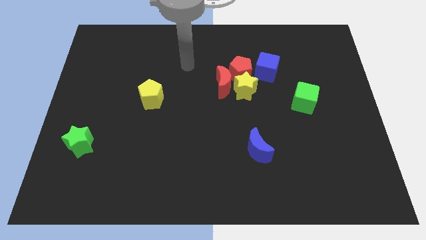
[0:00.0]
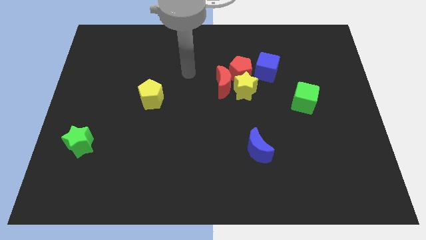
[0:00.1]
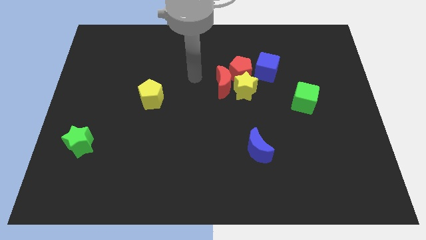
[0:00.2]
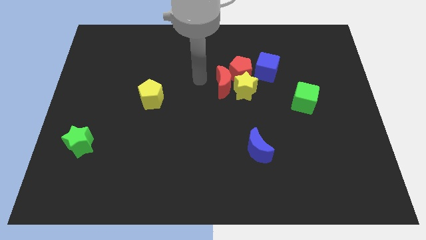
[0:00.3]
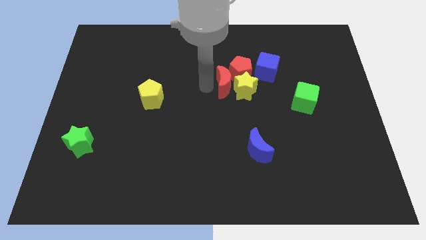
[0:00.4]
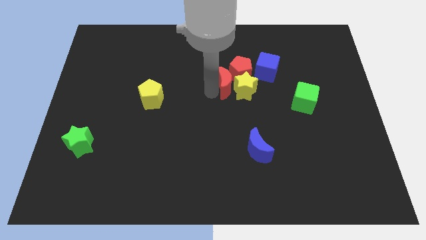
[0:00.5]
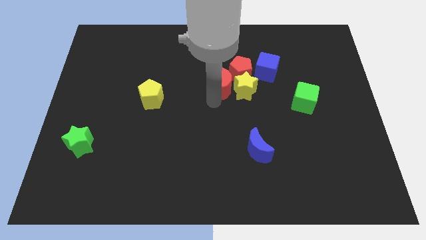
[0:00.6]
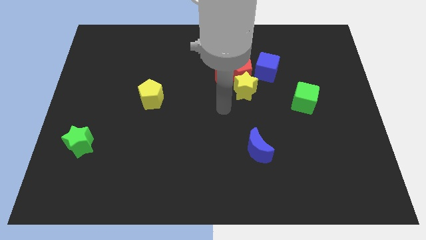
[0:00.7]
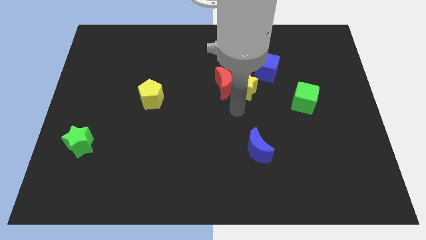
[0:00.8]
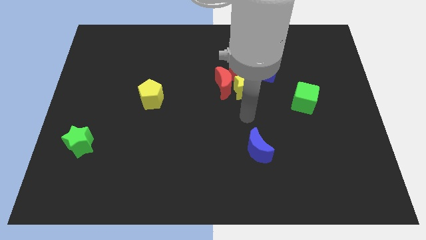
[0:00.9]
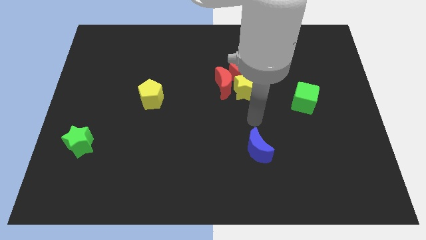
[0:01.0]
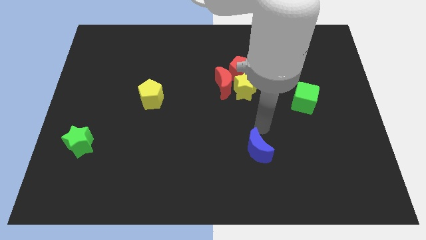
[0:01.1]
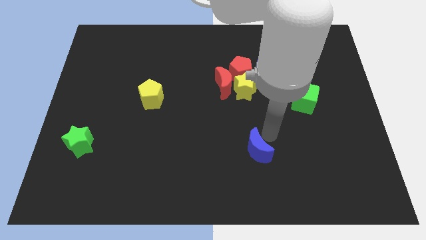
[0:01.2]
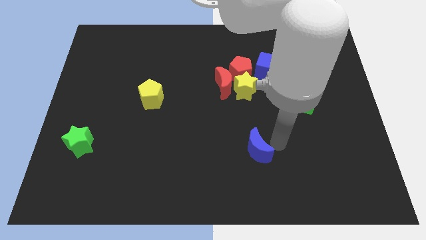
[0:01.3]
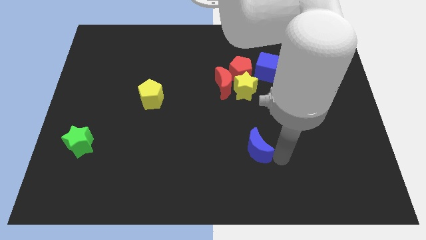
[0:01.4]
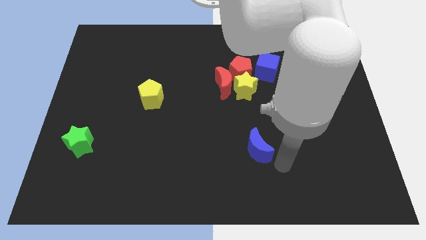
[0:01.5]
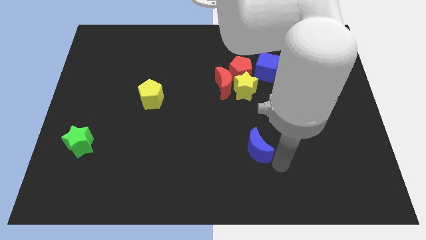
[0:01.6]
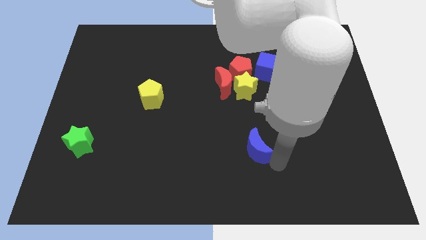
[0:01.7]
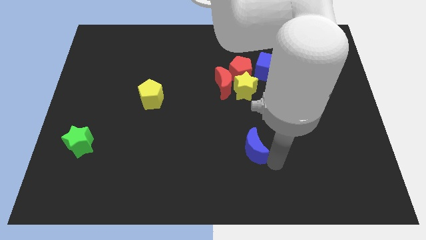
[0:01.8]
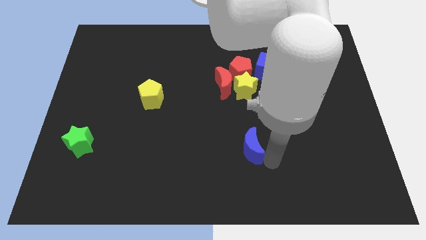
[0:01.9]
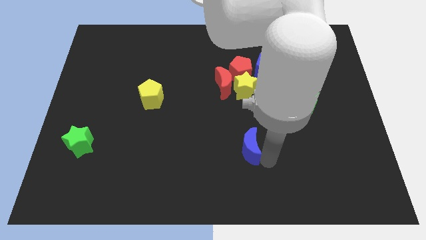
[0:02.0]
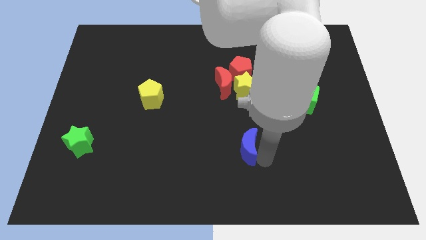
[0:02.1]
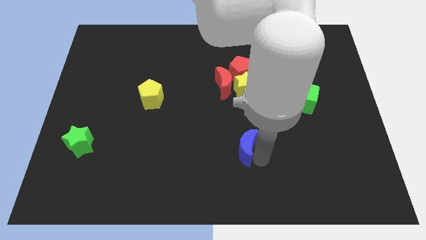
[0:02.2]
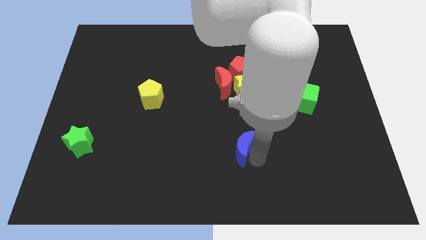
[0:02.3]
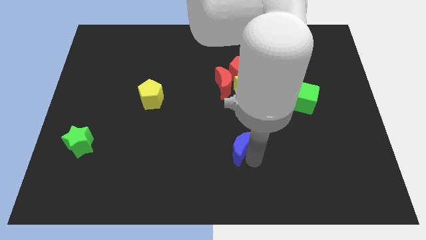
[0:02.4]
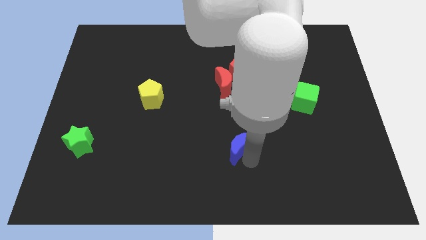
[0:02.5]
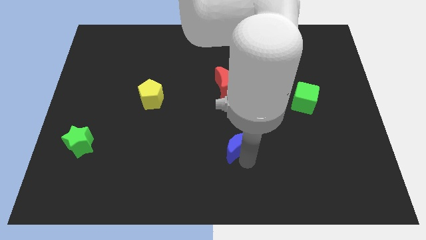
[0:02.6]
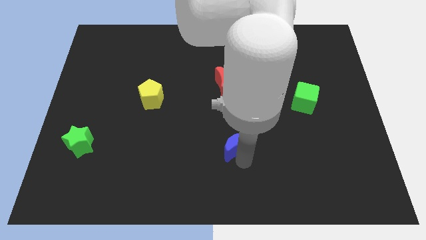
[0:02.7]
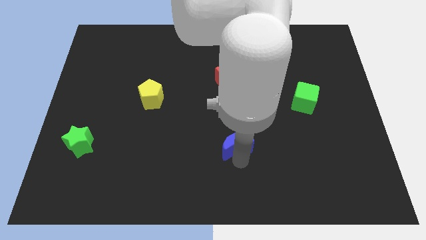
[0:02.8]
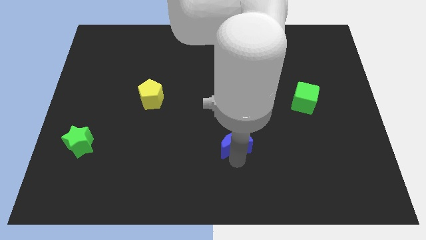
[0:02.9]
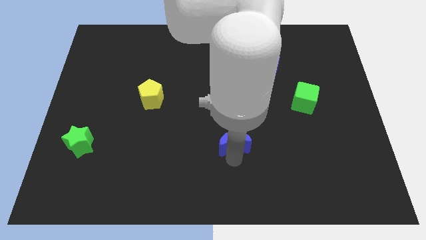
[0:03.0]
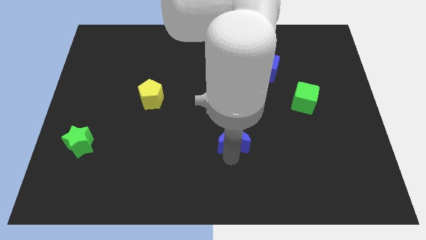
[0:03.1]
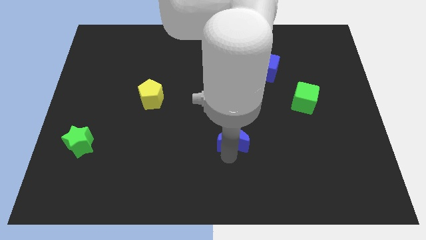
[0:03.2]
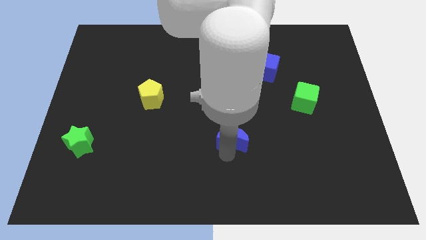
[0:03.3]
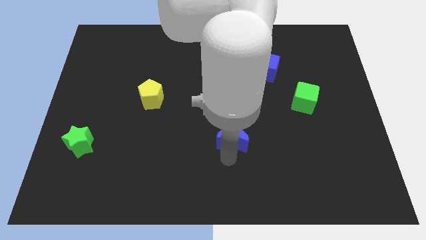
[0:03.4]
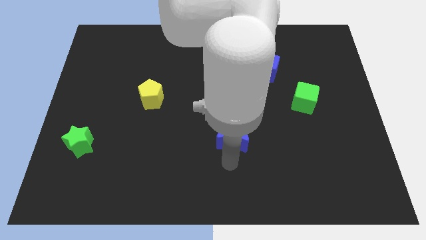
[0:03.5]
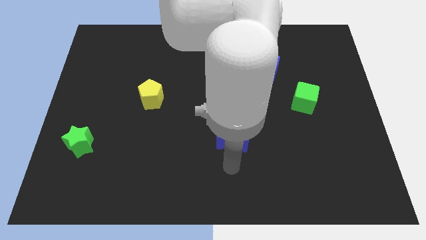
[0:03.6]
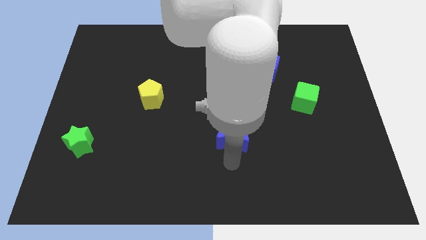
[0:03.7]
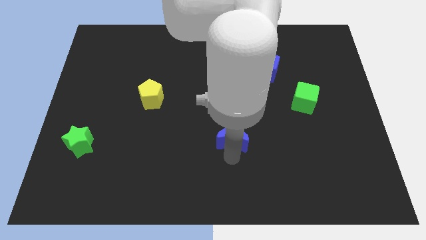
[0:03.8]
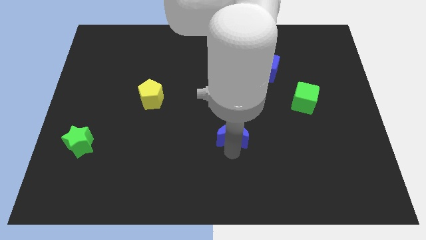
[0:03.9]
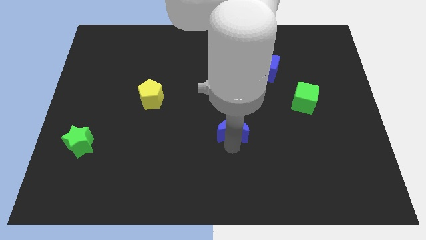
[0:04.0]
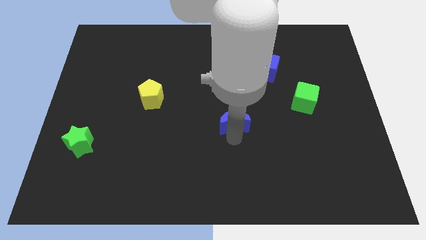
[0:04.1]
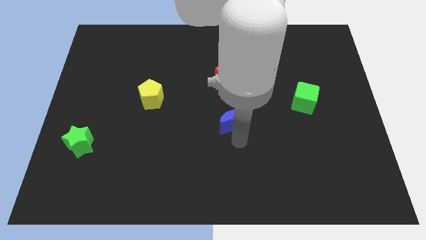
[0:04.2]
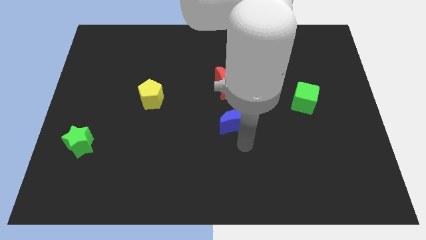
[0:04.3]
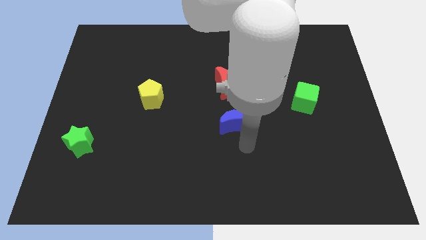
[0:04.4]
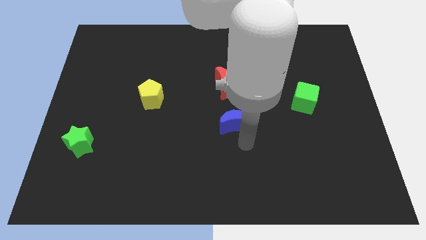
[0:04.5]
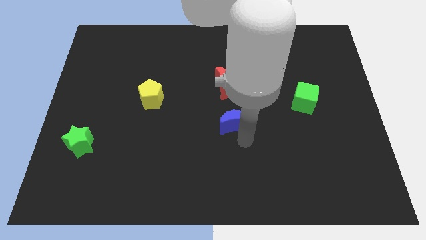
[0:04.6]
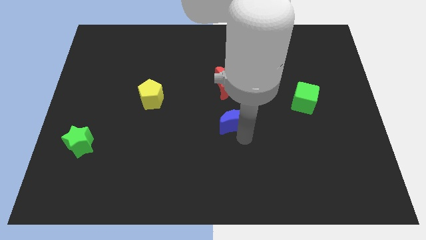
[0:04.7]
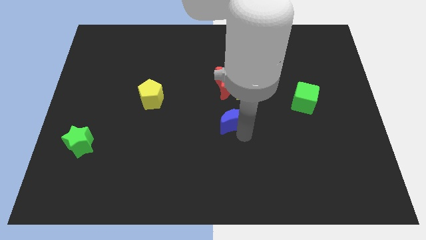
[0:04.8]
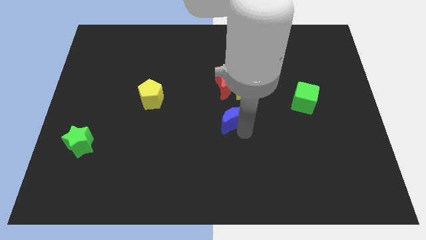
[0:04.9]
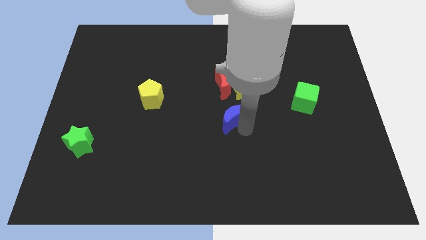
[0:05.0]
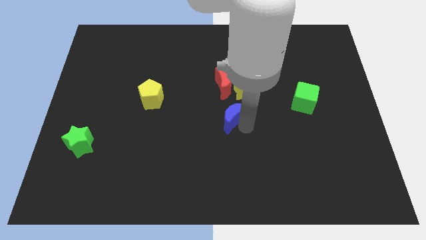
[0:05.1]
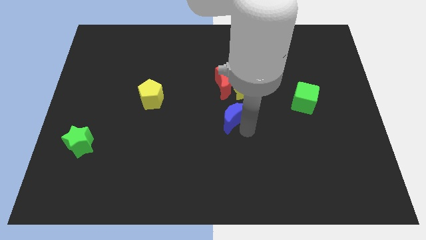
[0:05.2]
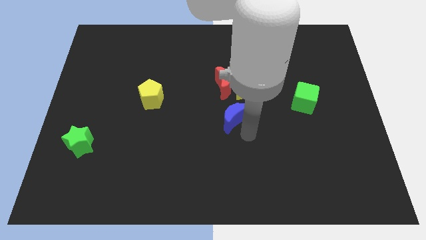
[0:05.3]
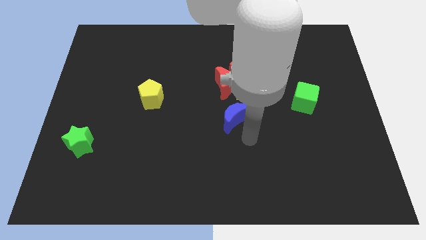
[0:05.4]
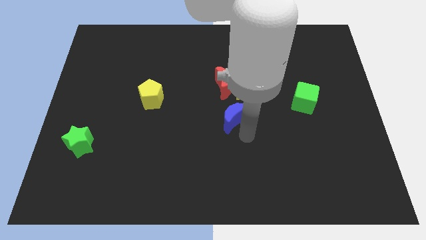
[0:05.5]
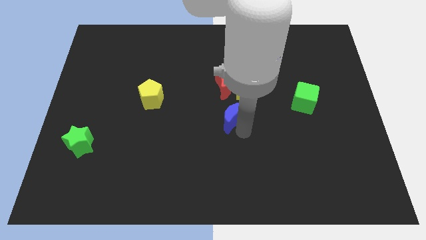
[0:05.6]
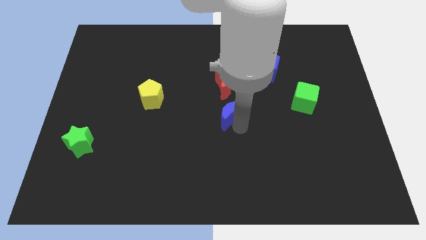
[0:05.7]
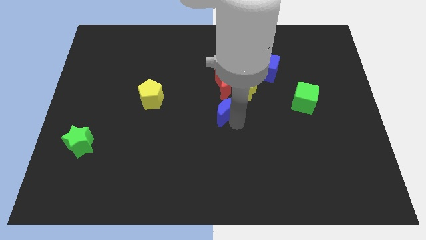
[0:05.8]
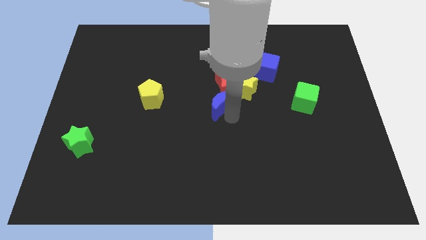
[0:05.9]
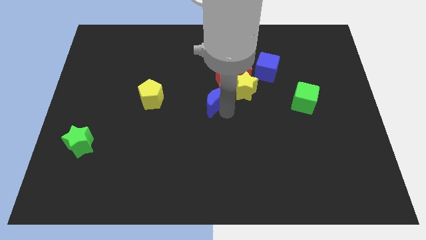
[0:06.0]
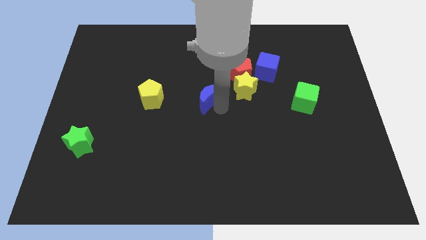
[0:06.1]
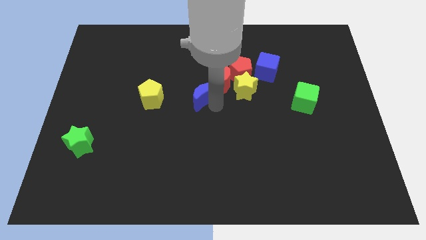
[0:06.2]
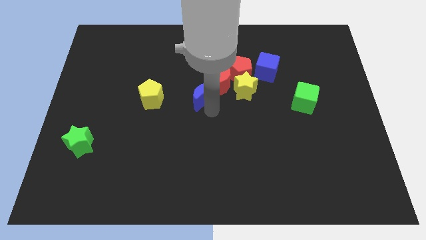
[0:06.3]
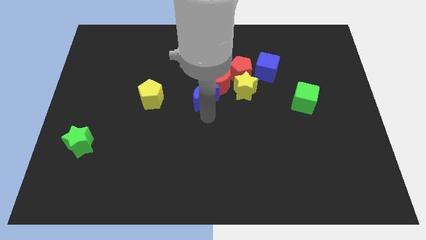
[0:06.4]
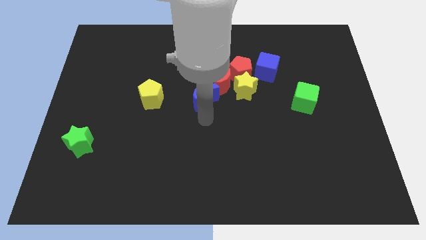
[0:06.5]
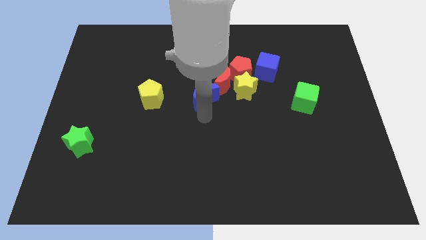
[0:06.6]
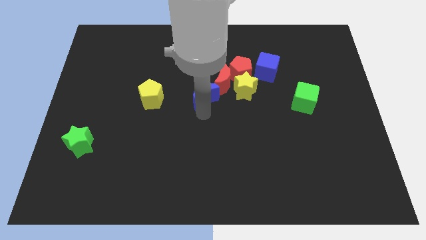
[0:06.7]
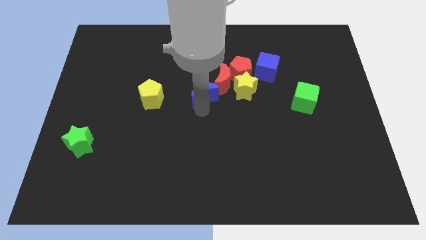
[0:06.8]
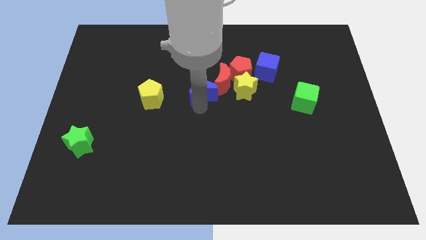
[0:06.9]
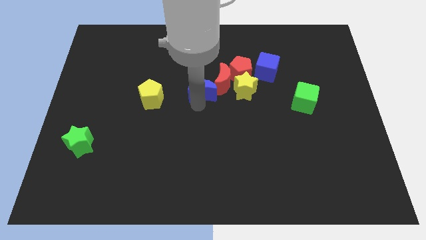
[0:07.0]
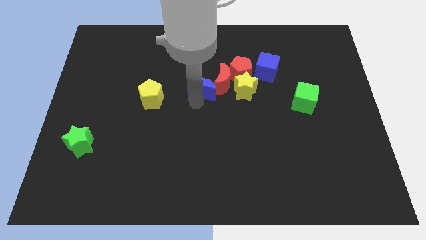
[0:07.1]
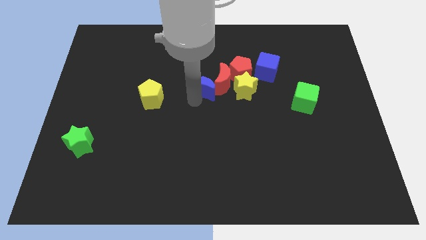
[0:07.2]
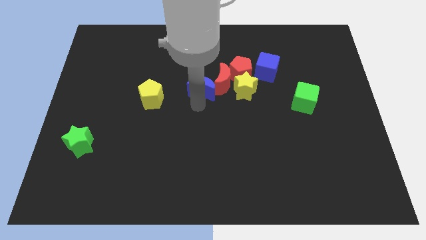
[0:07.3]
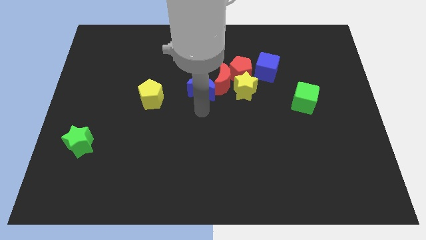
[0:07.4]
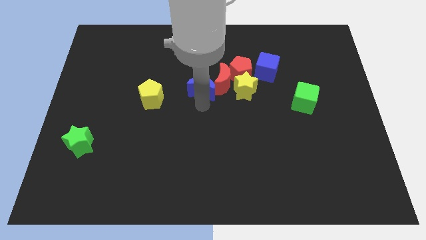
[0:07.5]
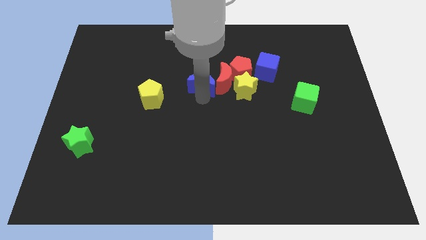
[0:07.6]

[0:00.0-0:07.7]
slide the blue moon to the top left of the red moon
